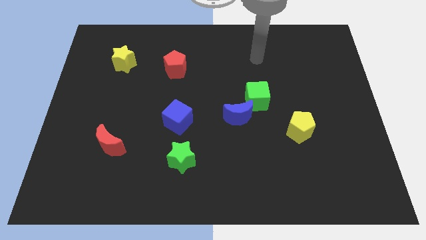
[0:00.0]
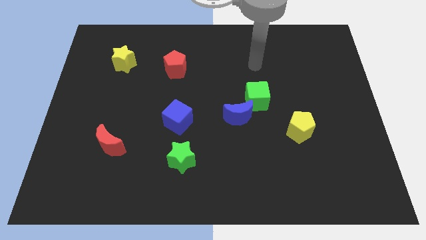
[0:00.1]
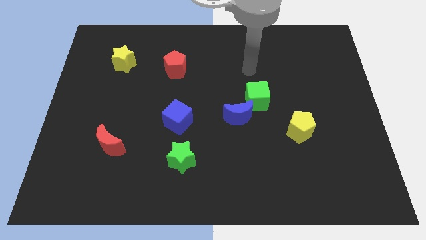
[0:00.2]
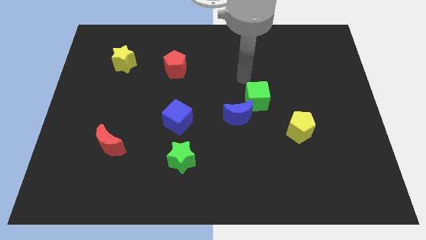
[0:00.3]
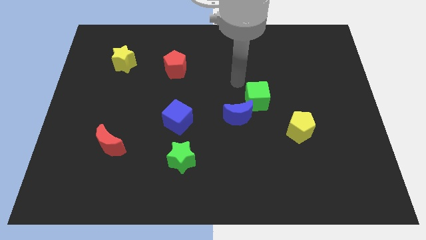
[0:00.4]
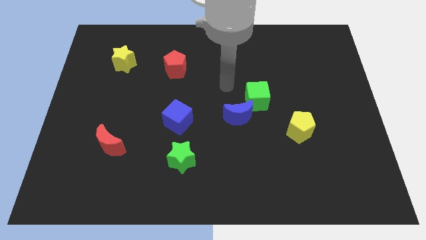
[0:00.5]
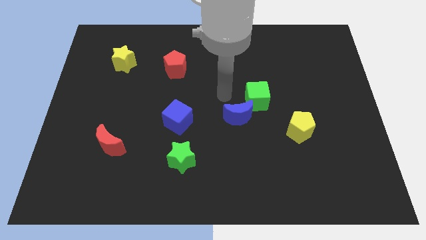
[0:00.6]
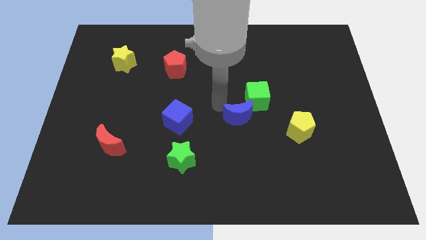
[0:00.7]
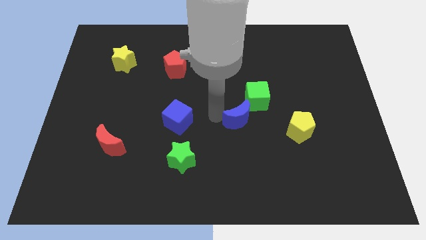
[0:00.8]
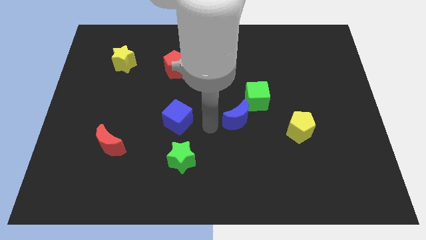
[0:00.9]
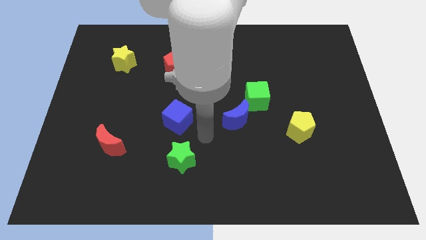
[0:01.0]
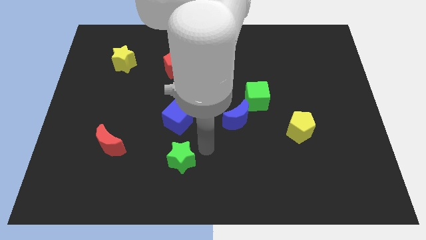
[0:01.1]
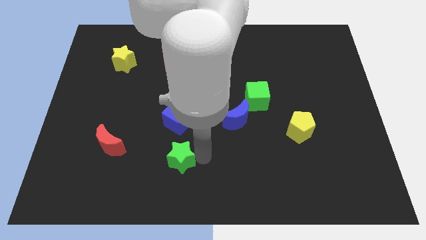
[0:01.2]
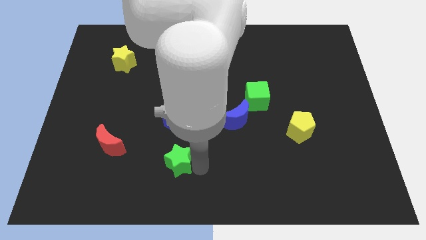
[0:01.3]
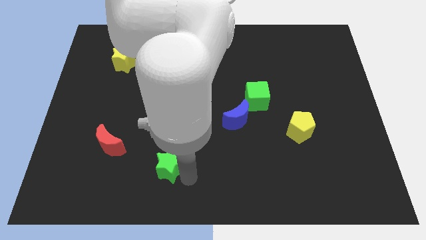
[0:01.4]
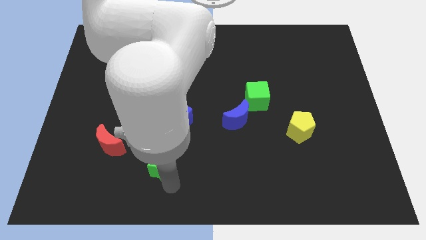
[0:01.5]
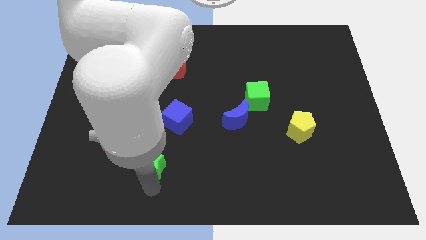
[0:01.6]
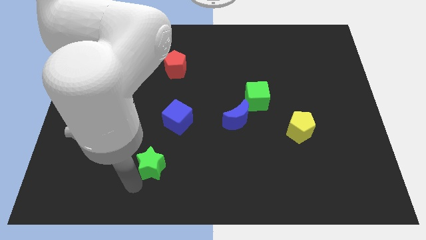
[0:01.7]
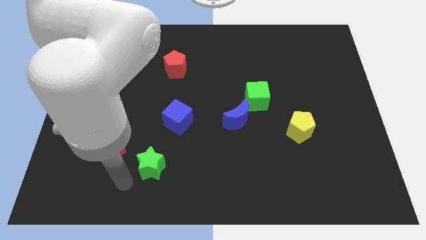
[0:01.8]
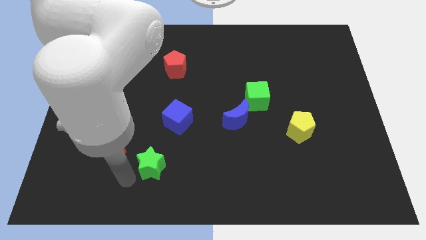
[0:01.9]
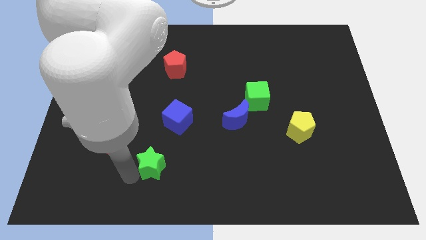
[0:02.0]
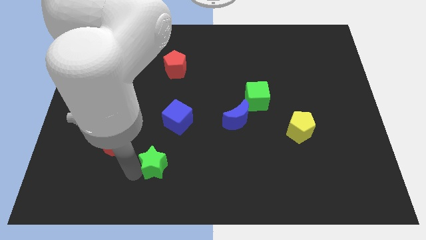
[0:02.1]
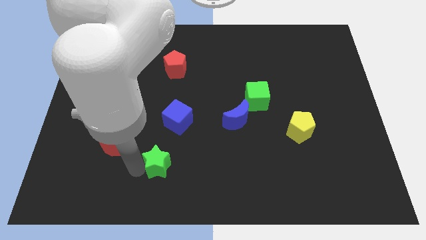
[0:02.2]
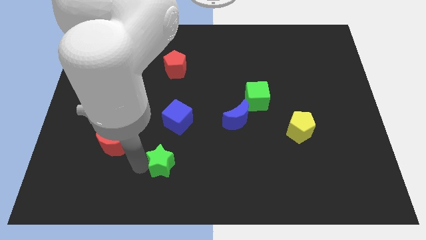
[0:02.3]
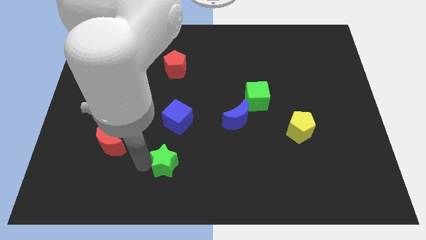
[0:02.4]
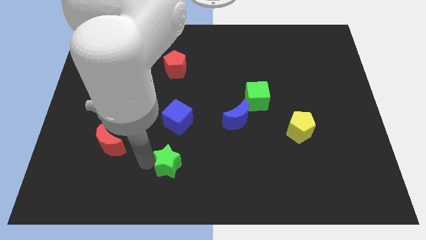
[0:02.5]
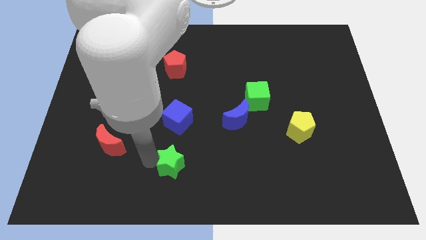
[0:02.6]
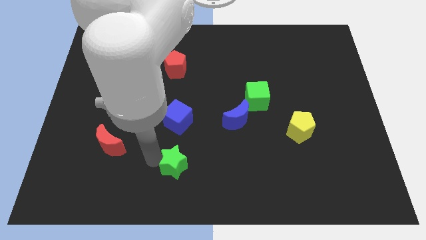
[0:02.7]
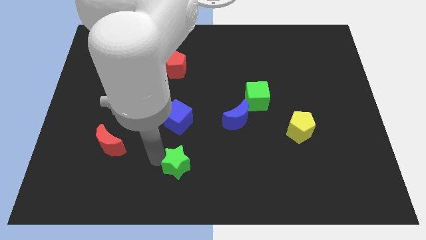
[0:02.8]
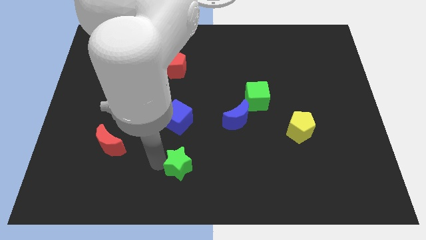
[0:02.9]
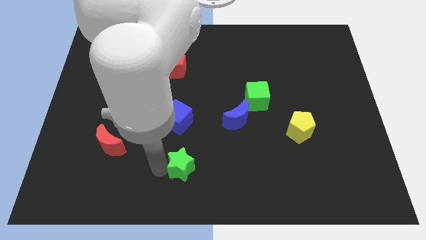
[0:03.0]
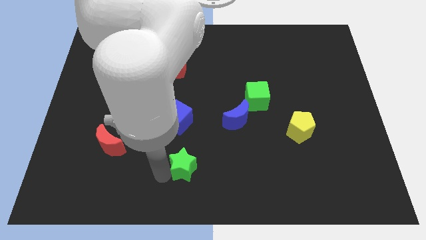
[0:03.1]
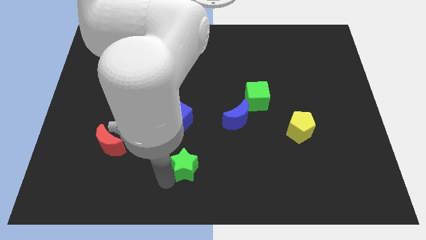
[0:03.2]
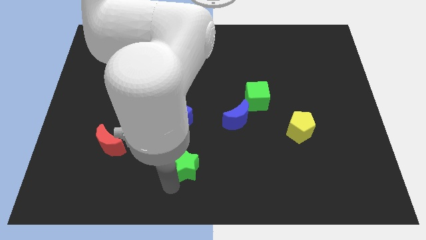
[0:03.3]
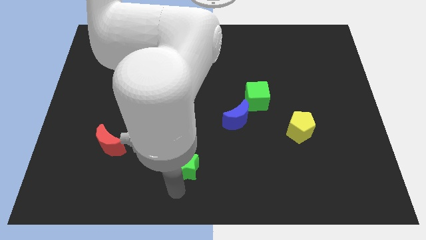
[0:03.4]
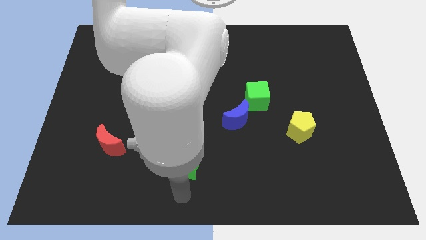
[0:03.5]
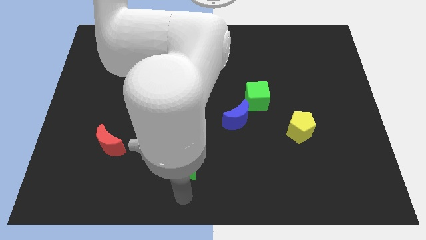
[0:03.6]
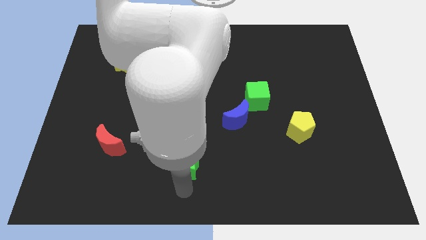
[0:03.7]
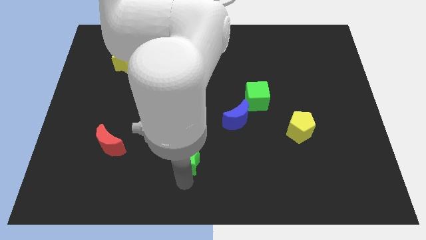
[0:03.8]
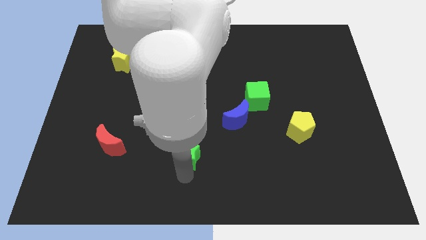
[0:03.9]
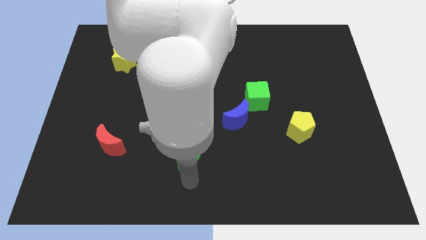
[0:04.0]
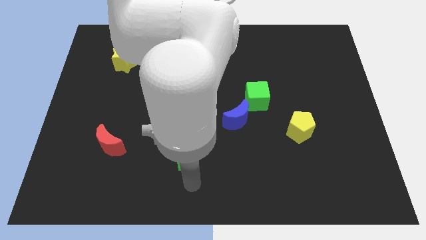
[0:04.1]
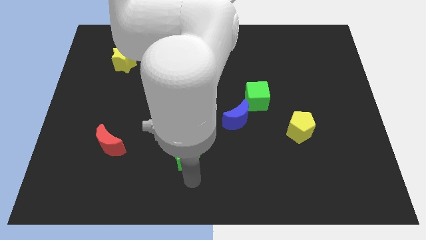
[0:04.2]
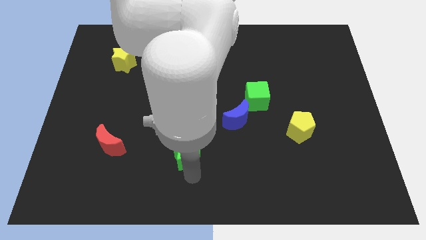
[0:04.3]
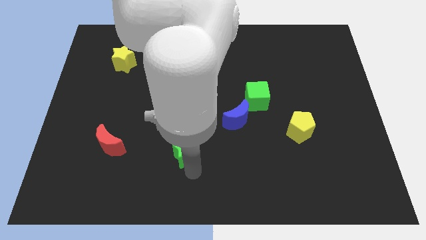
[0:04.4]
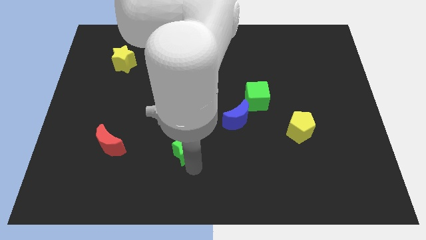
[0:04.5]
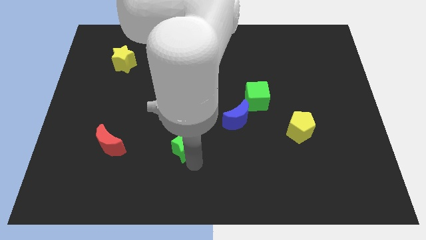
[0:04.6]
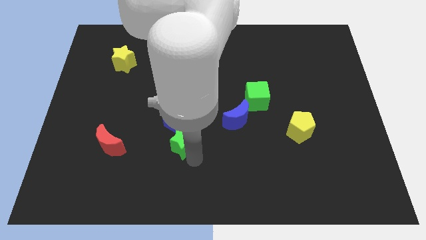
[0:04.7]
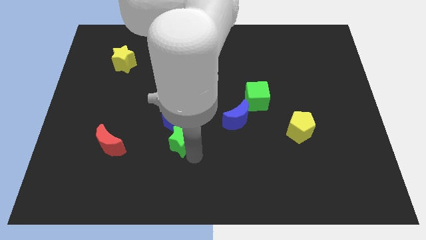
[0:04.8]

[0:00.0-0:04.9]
move the green star next to the blue cube

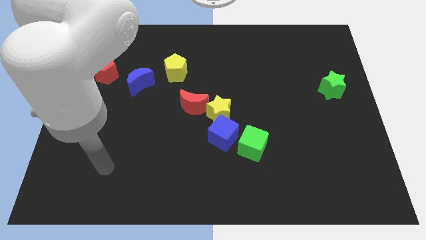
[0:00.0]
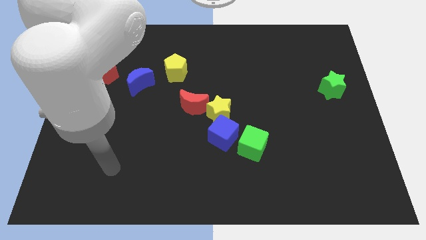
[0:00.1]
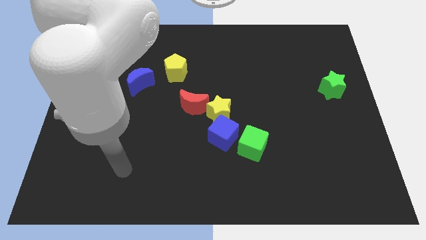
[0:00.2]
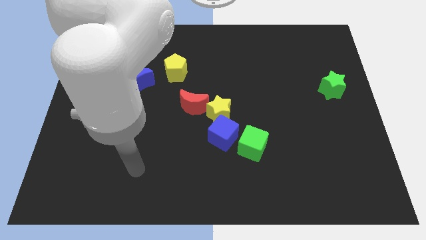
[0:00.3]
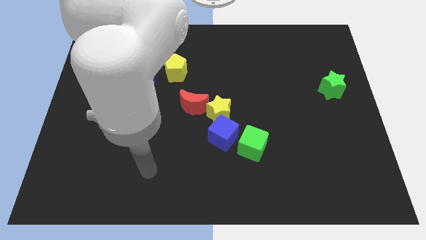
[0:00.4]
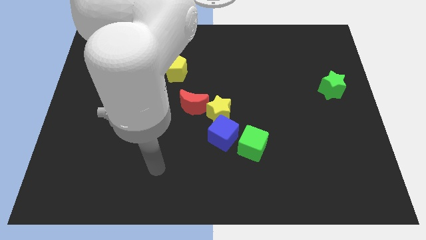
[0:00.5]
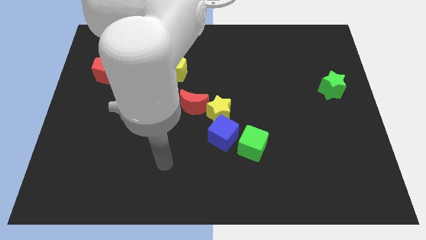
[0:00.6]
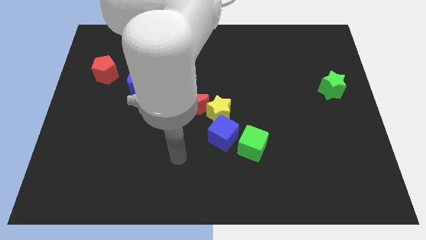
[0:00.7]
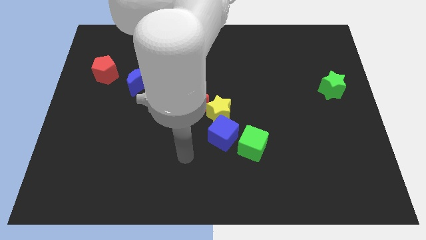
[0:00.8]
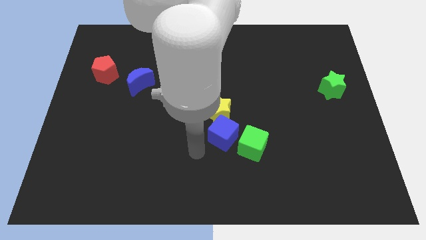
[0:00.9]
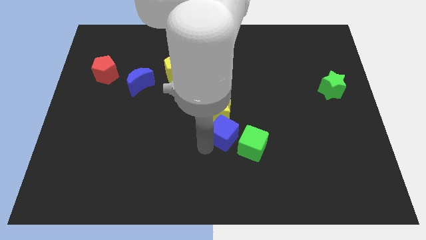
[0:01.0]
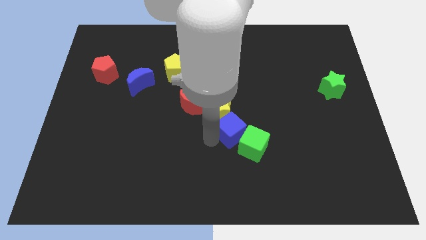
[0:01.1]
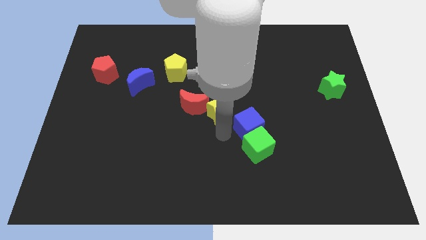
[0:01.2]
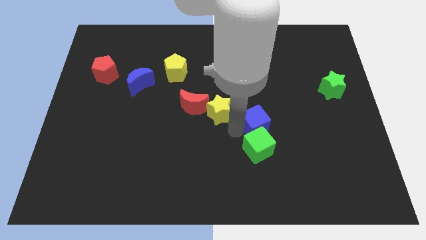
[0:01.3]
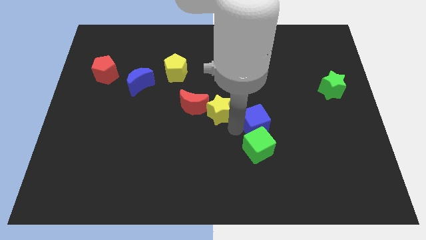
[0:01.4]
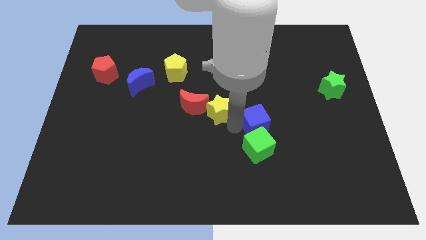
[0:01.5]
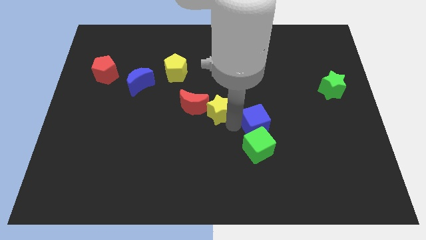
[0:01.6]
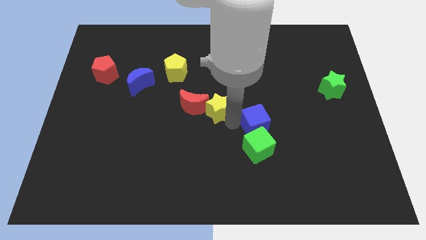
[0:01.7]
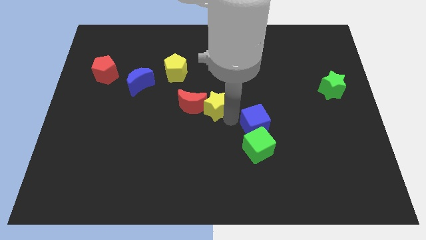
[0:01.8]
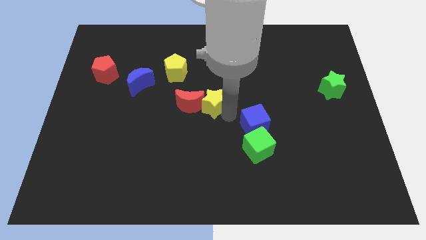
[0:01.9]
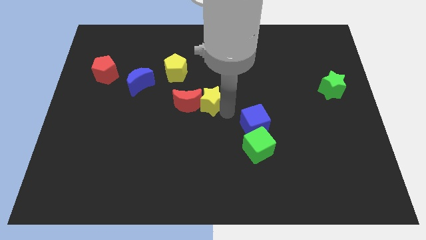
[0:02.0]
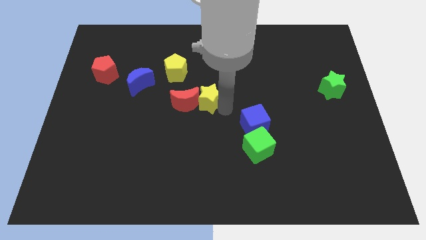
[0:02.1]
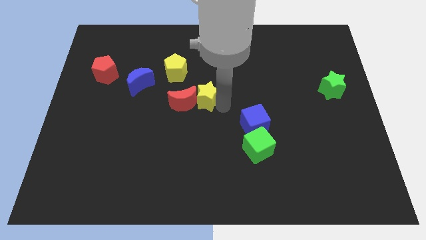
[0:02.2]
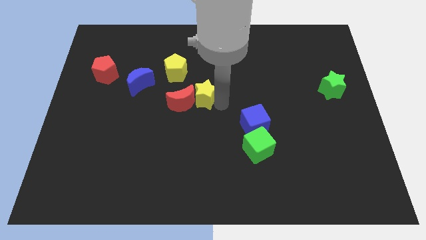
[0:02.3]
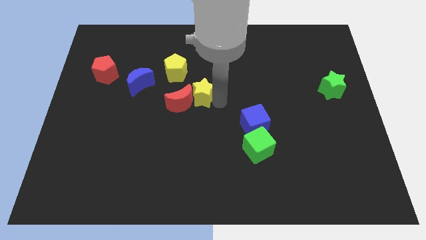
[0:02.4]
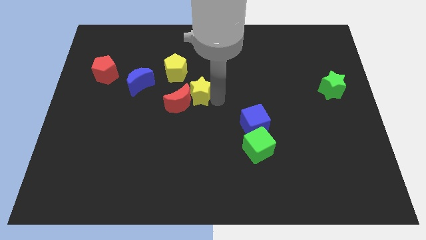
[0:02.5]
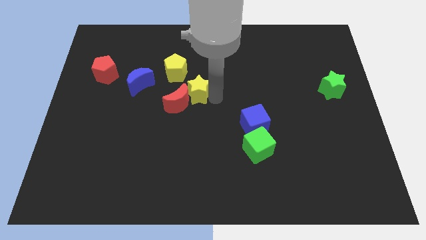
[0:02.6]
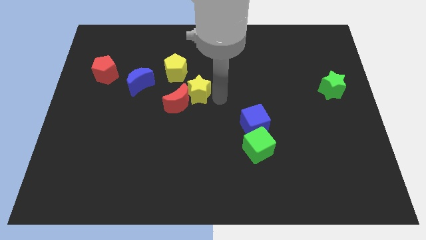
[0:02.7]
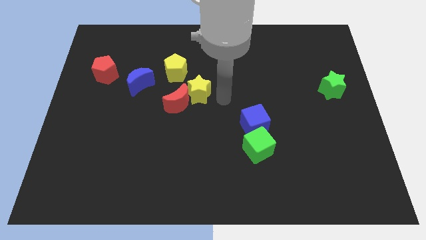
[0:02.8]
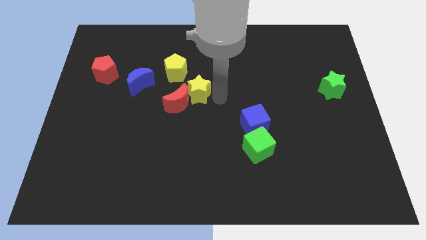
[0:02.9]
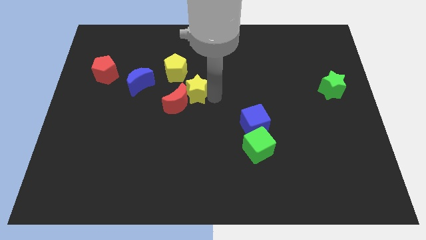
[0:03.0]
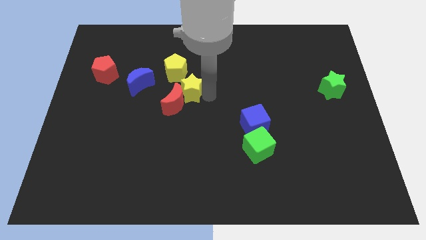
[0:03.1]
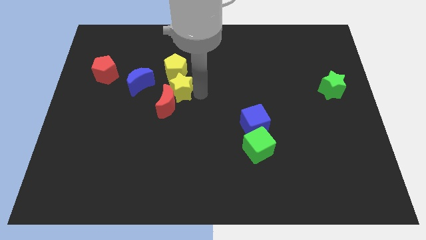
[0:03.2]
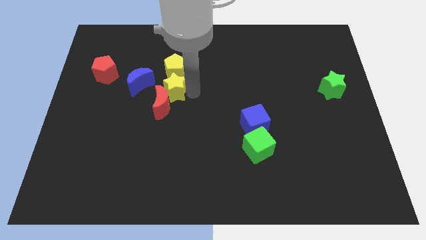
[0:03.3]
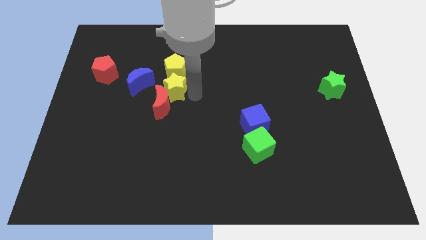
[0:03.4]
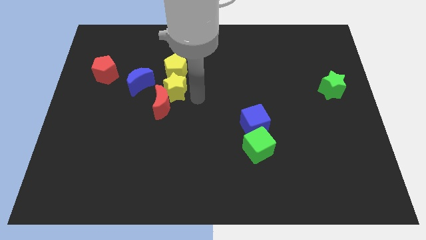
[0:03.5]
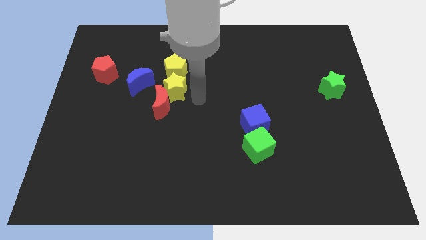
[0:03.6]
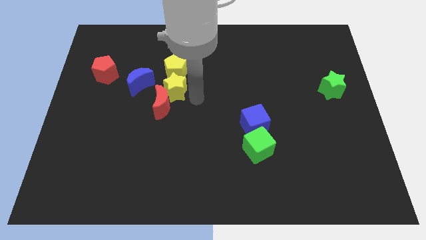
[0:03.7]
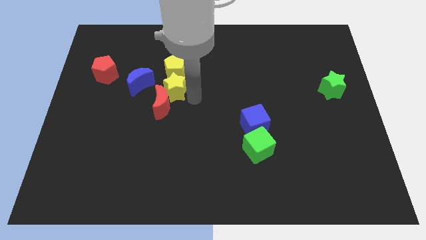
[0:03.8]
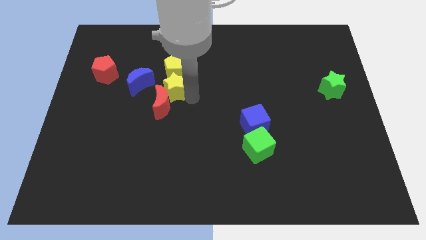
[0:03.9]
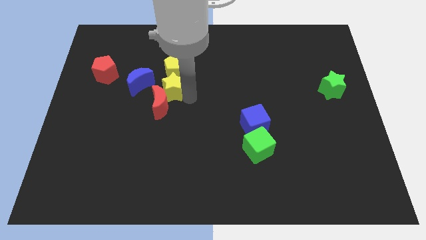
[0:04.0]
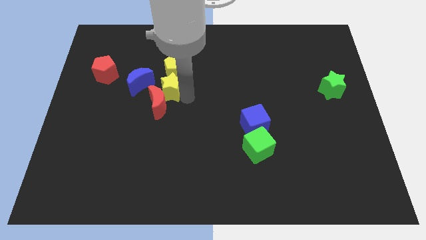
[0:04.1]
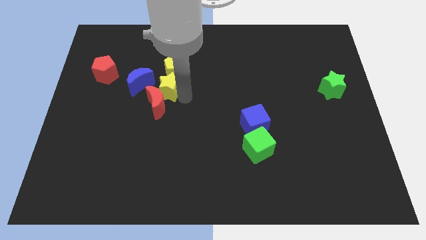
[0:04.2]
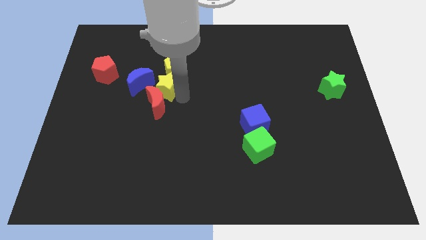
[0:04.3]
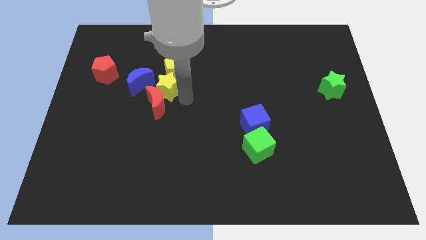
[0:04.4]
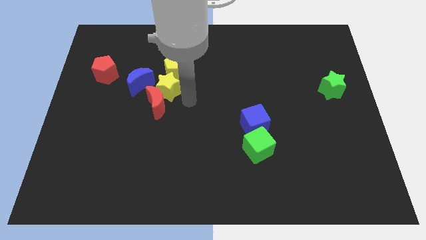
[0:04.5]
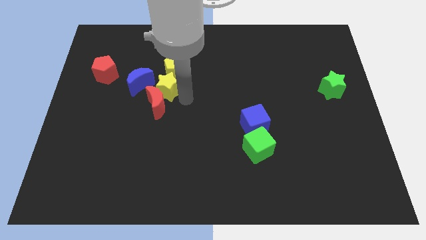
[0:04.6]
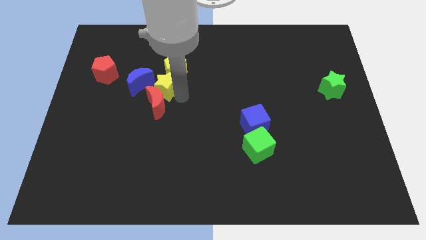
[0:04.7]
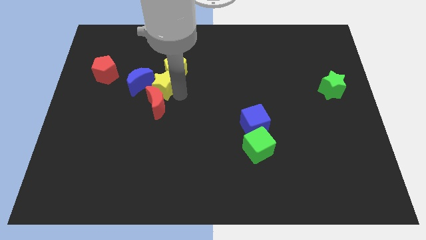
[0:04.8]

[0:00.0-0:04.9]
put the yellow star next to the blue moon
